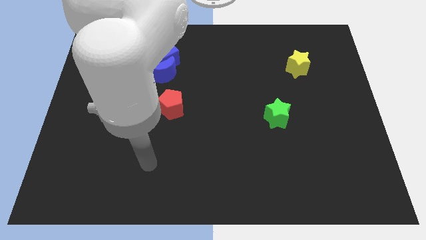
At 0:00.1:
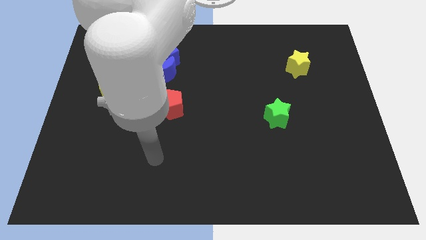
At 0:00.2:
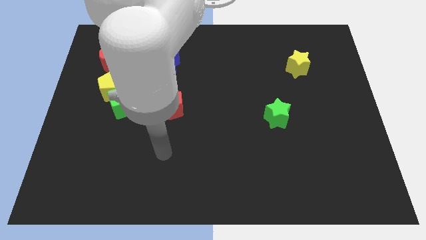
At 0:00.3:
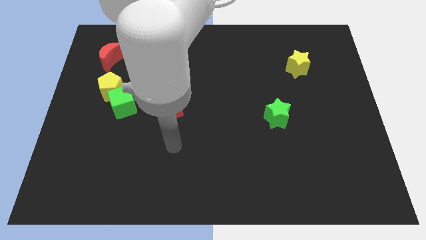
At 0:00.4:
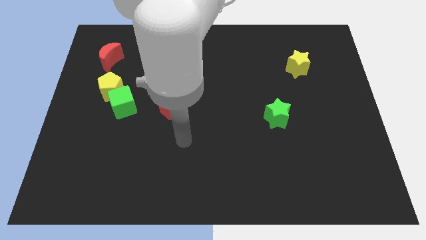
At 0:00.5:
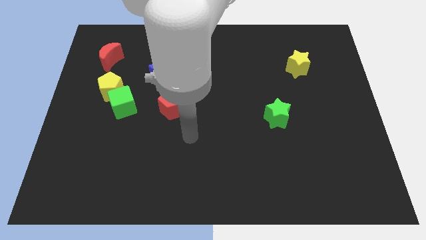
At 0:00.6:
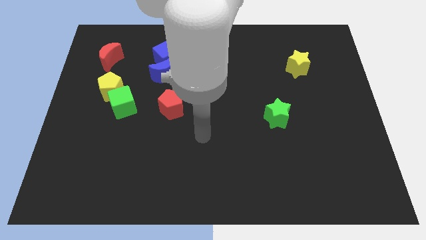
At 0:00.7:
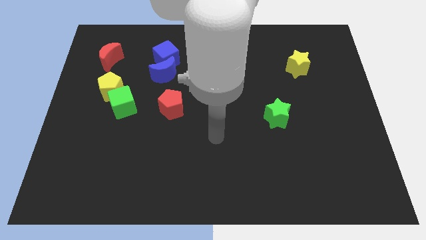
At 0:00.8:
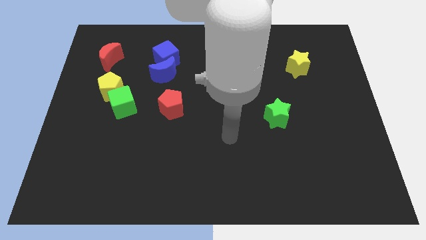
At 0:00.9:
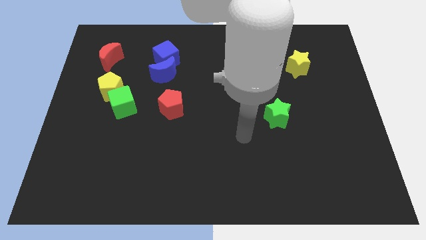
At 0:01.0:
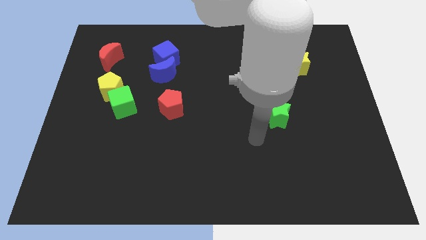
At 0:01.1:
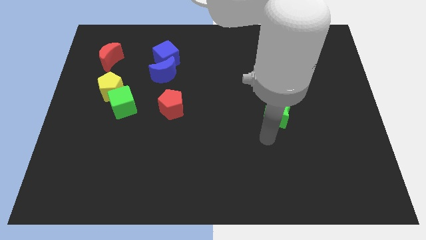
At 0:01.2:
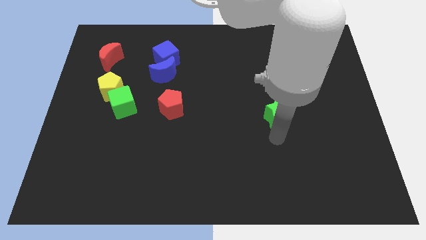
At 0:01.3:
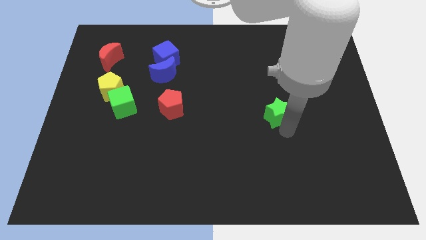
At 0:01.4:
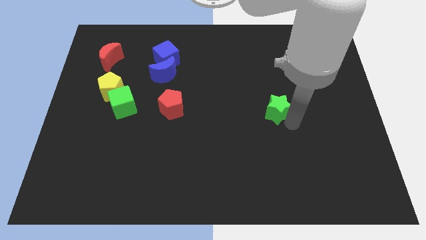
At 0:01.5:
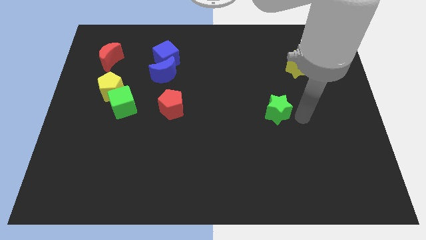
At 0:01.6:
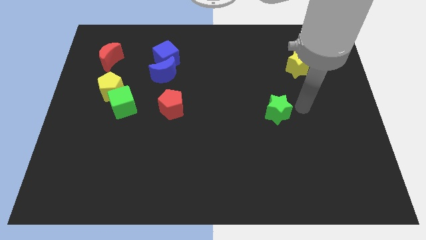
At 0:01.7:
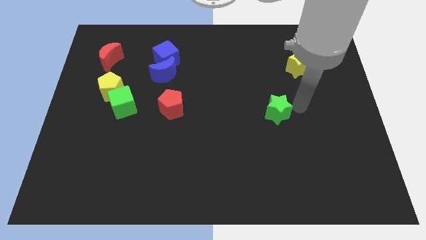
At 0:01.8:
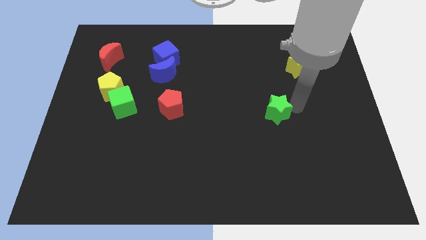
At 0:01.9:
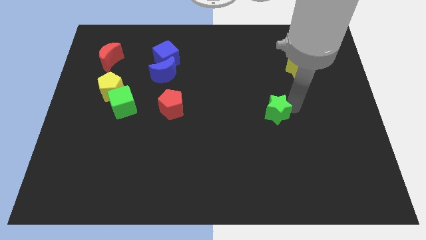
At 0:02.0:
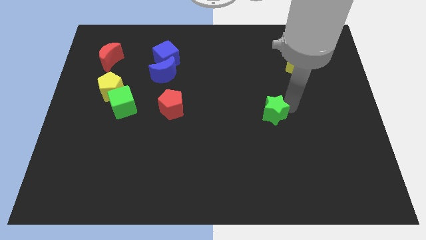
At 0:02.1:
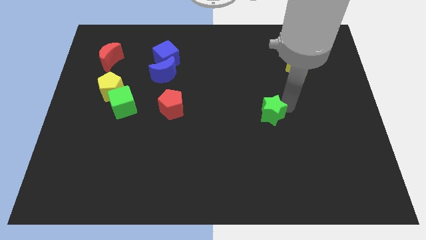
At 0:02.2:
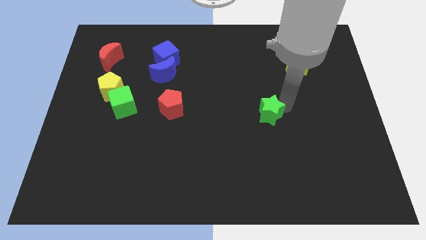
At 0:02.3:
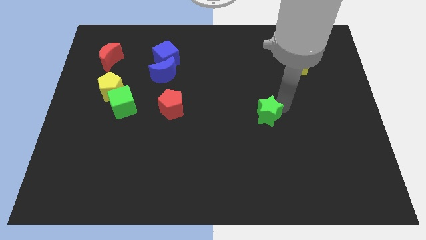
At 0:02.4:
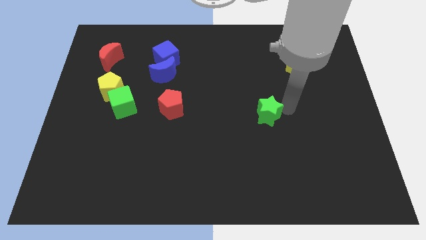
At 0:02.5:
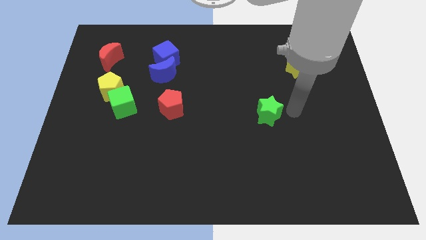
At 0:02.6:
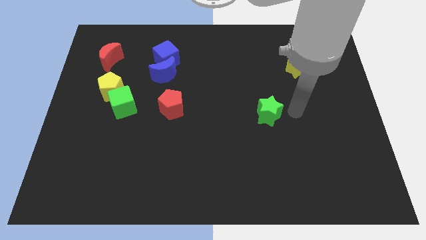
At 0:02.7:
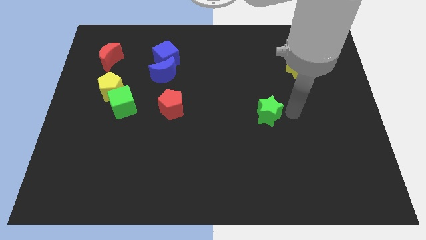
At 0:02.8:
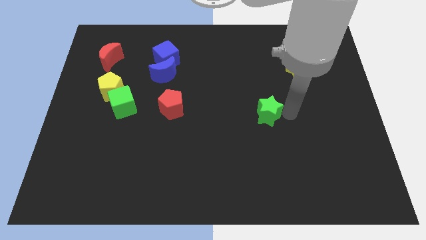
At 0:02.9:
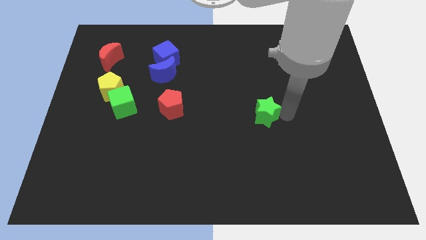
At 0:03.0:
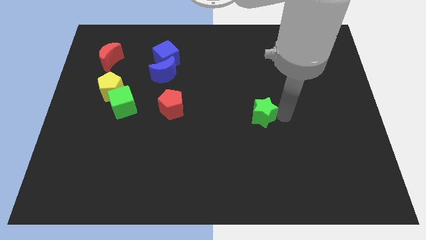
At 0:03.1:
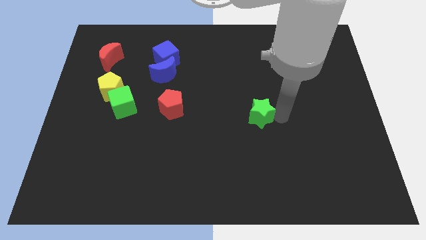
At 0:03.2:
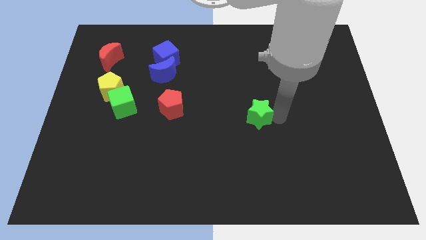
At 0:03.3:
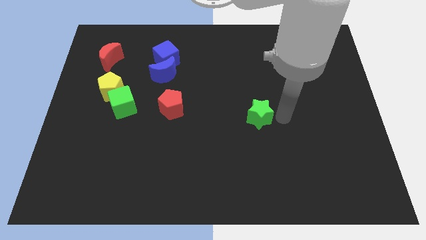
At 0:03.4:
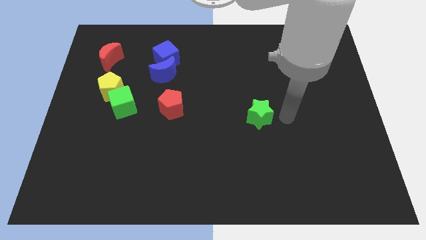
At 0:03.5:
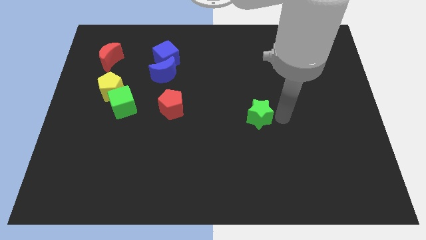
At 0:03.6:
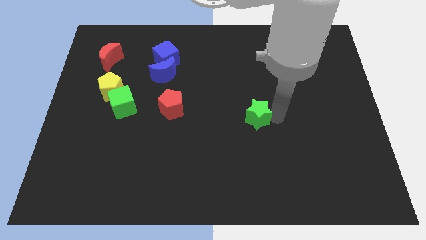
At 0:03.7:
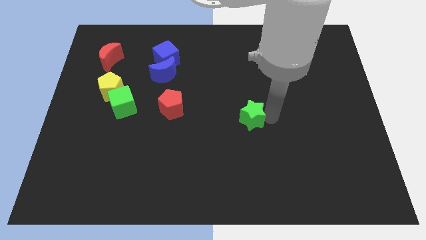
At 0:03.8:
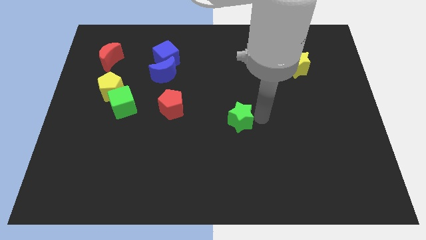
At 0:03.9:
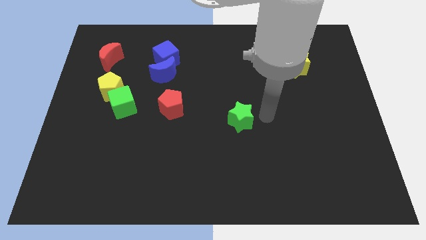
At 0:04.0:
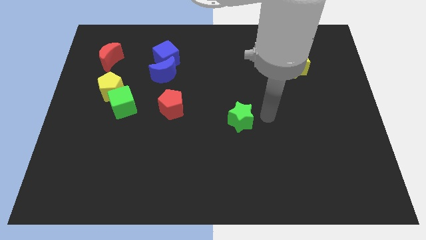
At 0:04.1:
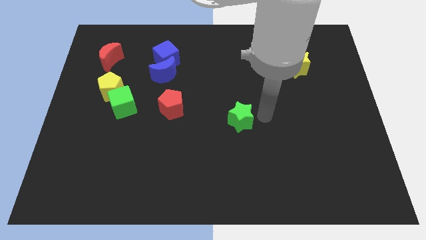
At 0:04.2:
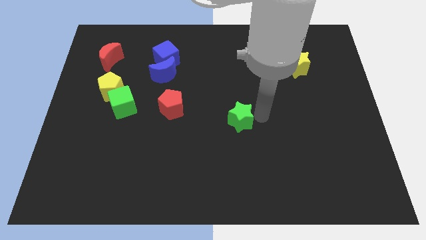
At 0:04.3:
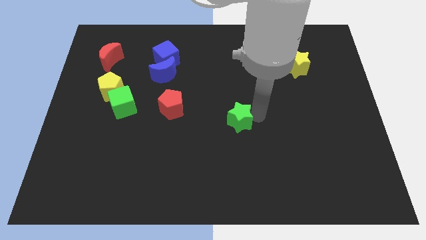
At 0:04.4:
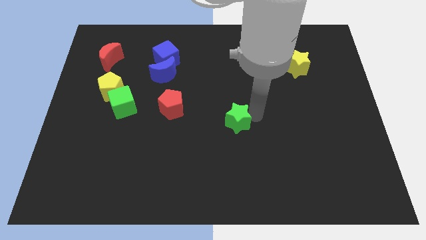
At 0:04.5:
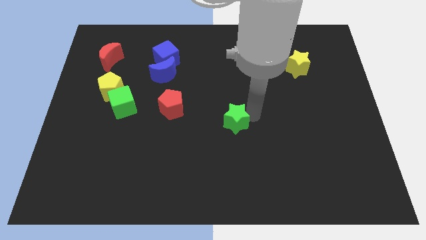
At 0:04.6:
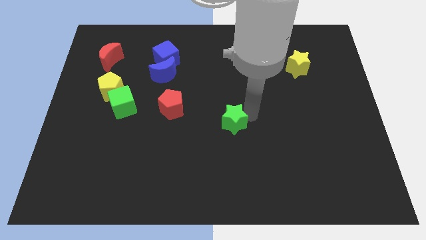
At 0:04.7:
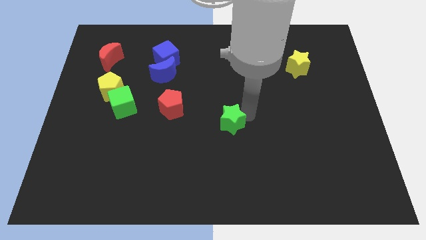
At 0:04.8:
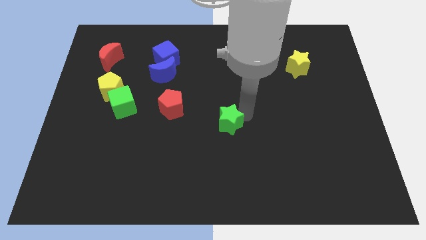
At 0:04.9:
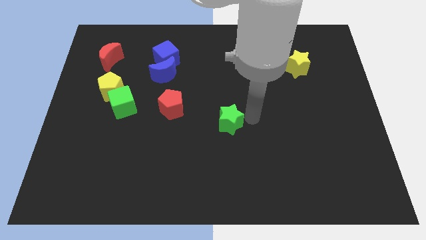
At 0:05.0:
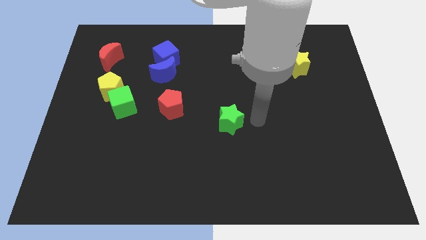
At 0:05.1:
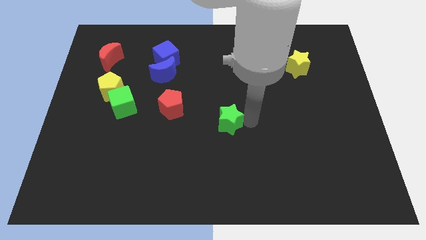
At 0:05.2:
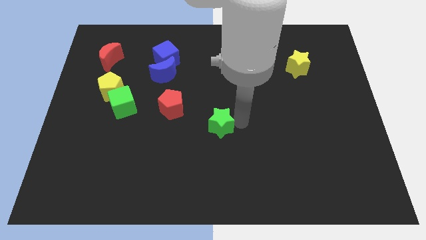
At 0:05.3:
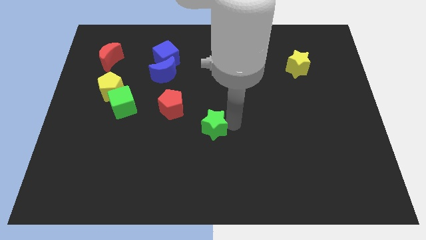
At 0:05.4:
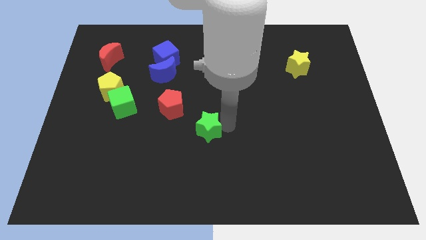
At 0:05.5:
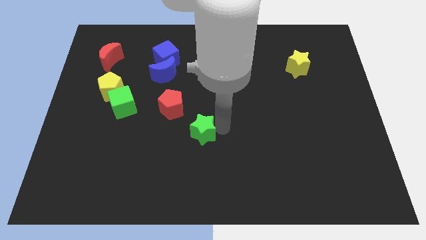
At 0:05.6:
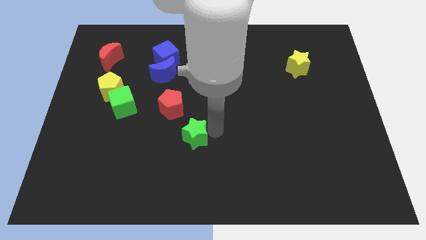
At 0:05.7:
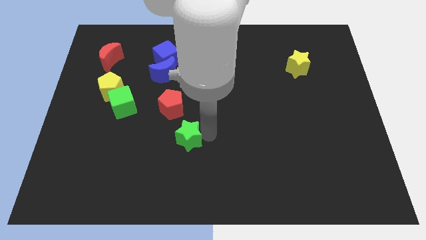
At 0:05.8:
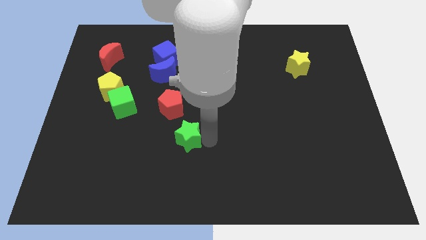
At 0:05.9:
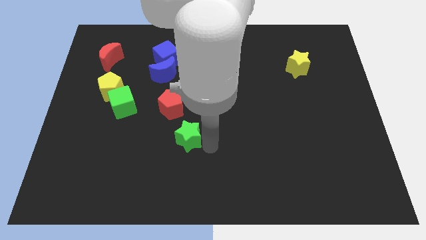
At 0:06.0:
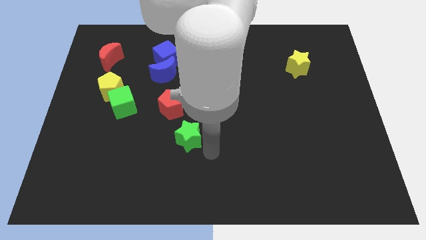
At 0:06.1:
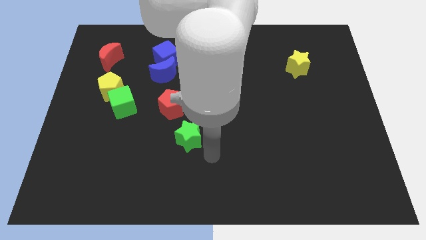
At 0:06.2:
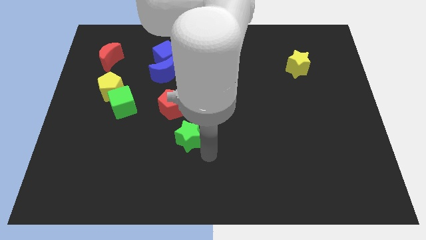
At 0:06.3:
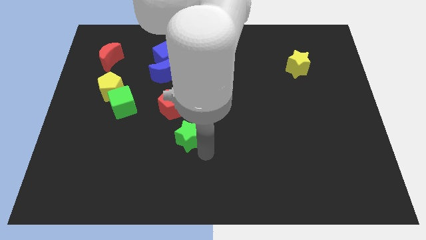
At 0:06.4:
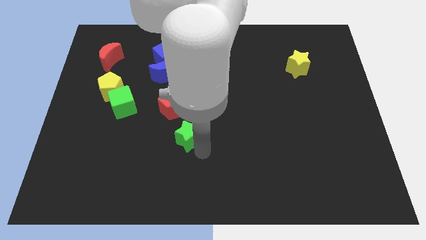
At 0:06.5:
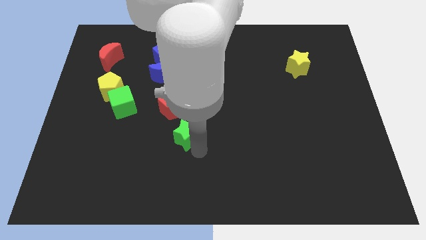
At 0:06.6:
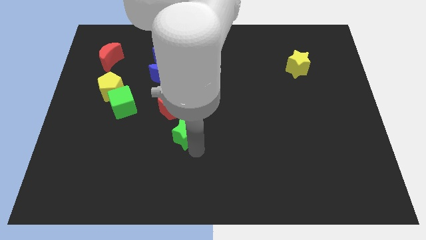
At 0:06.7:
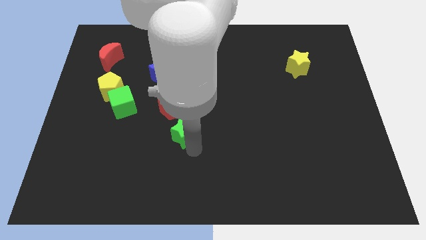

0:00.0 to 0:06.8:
push the green star to the left

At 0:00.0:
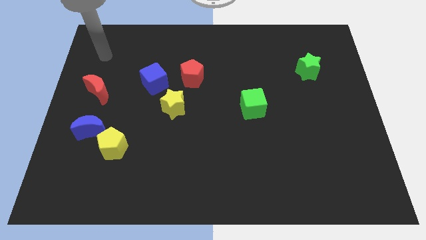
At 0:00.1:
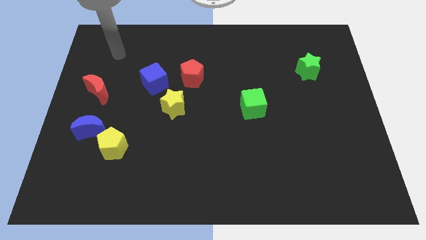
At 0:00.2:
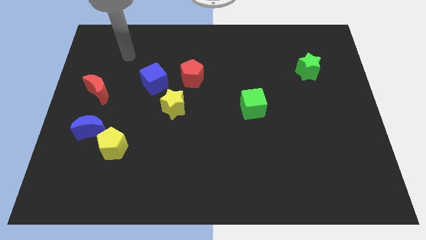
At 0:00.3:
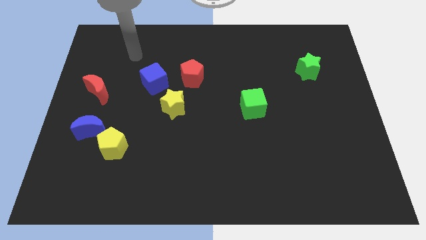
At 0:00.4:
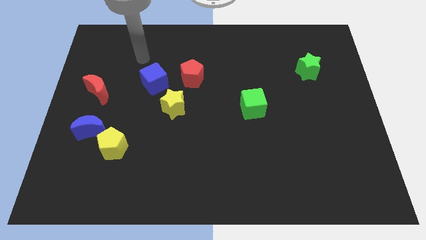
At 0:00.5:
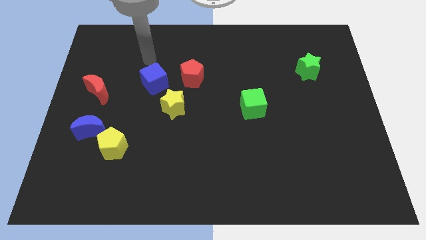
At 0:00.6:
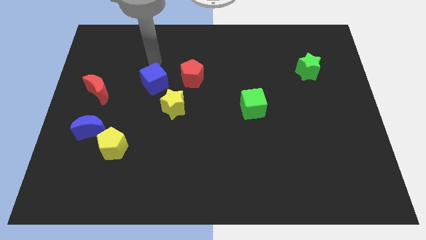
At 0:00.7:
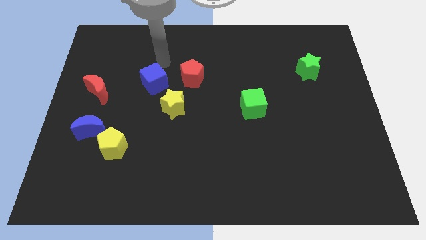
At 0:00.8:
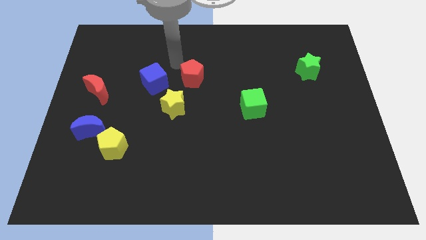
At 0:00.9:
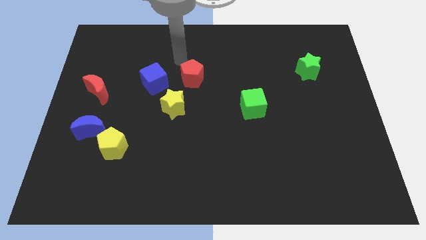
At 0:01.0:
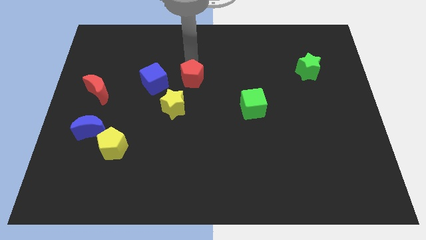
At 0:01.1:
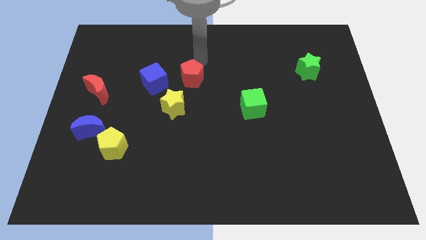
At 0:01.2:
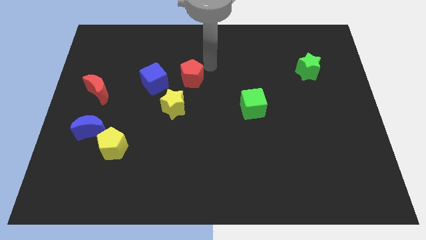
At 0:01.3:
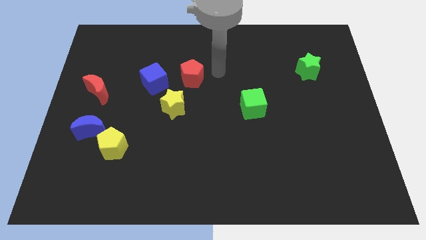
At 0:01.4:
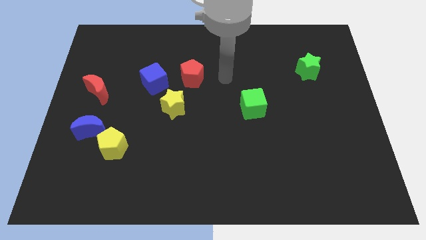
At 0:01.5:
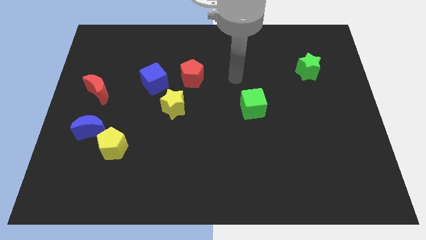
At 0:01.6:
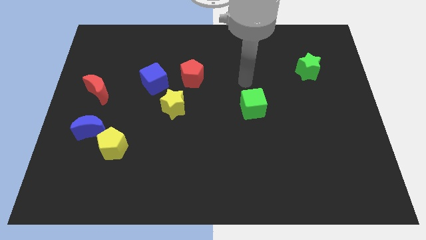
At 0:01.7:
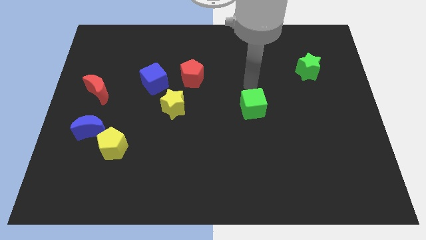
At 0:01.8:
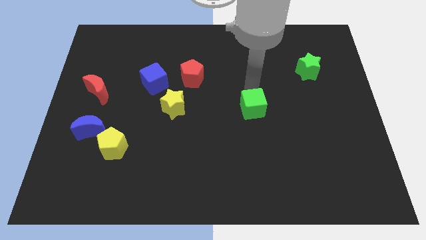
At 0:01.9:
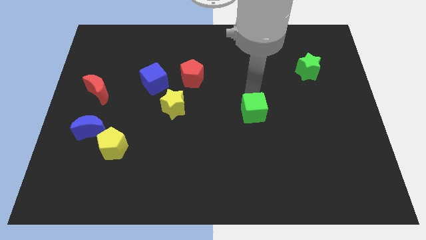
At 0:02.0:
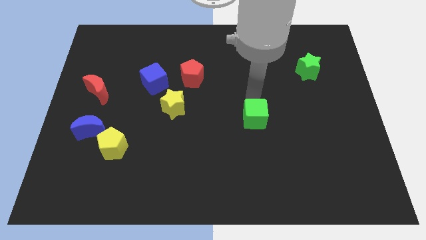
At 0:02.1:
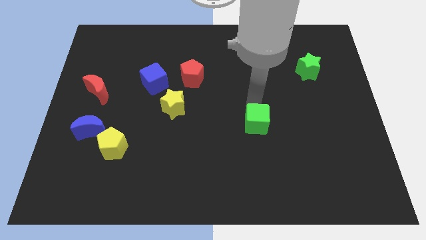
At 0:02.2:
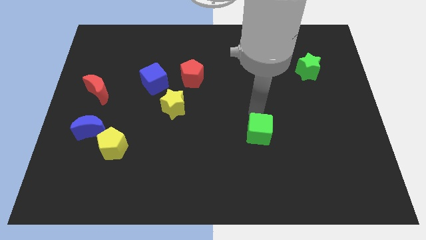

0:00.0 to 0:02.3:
slightly push the green cube down
